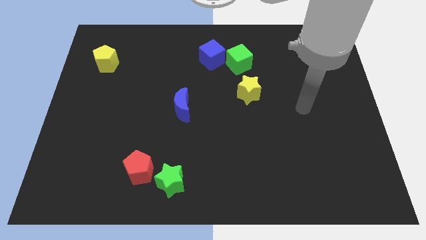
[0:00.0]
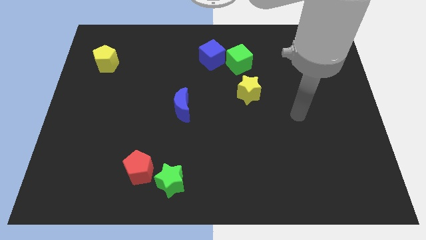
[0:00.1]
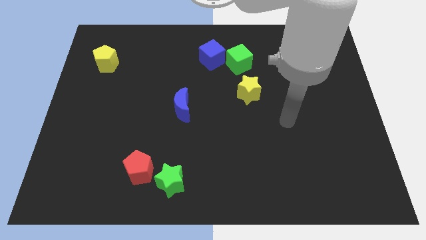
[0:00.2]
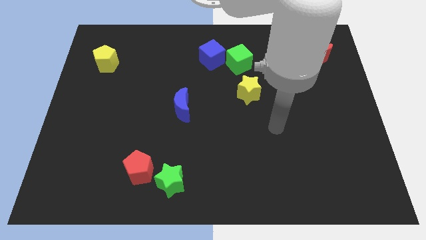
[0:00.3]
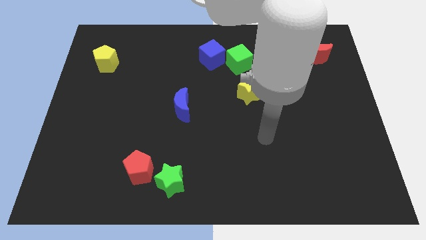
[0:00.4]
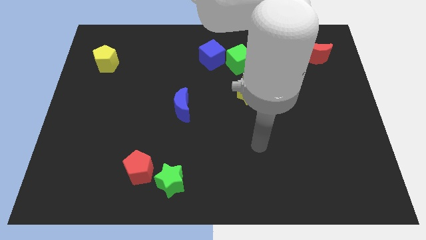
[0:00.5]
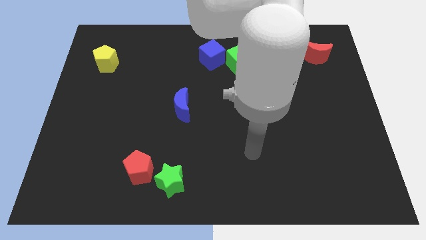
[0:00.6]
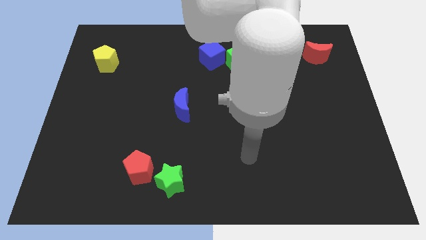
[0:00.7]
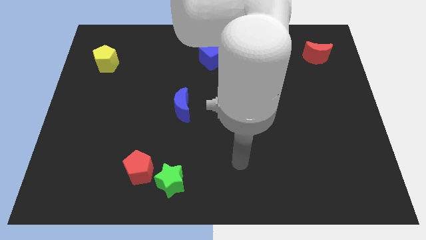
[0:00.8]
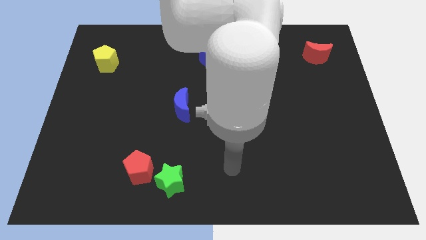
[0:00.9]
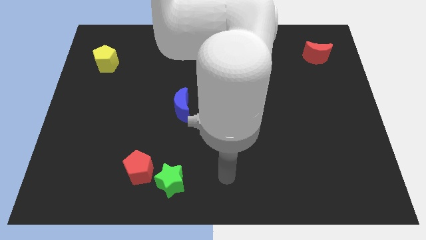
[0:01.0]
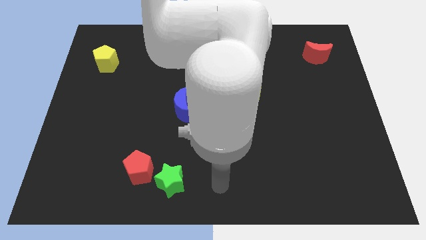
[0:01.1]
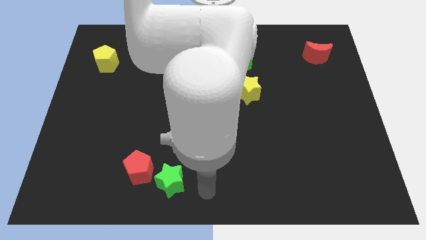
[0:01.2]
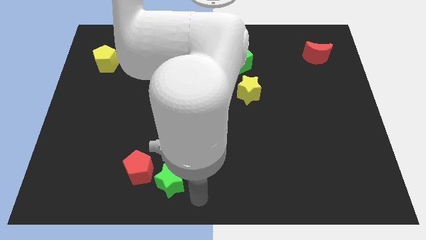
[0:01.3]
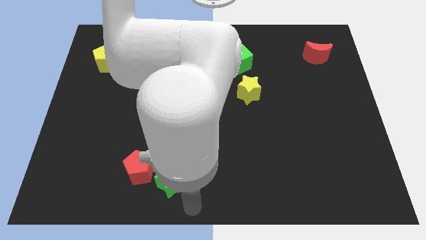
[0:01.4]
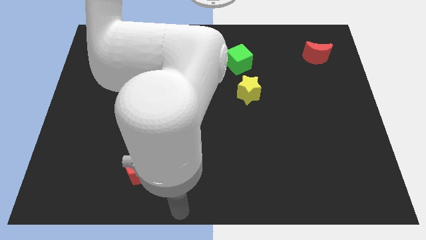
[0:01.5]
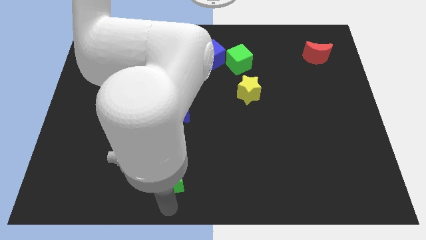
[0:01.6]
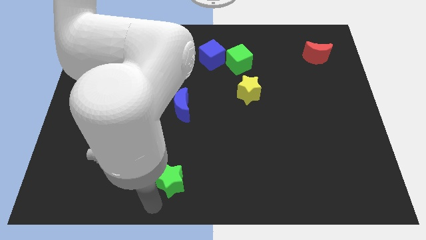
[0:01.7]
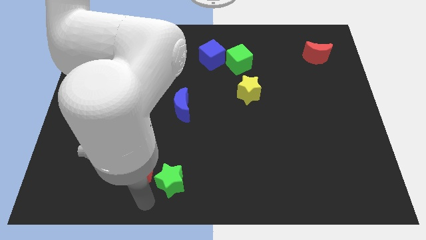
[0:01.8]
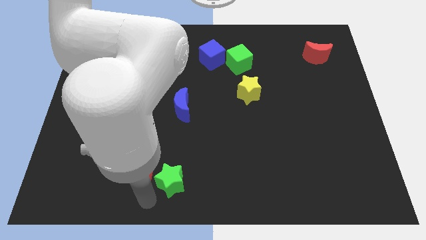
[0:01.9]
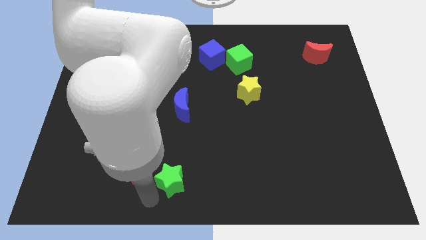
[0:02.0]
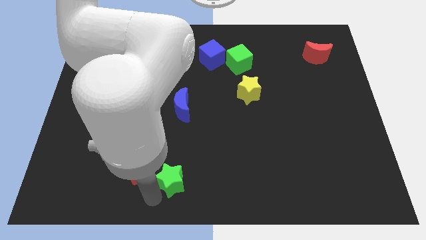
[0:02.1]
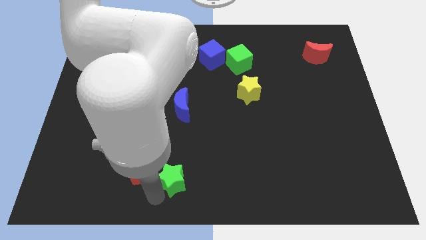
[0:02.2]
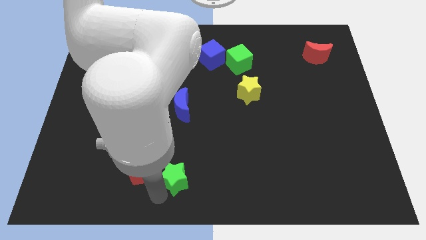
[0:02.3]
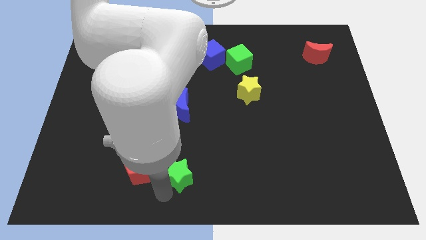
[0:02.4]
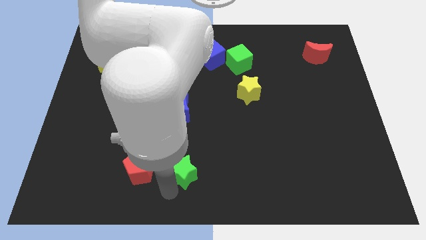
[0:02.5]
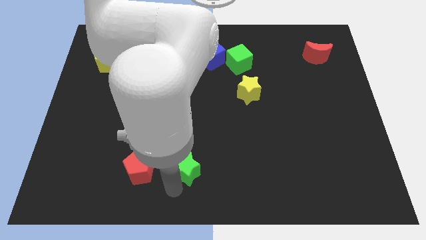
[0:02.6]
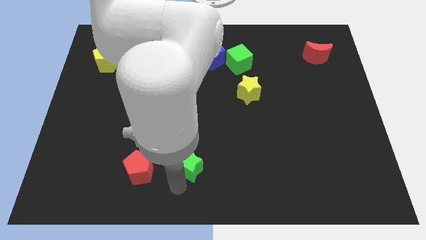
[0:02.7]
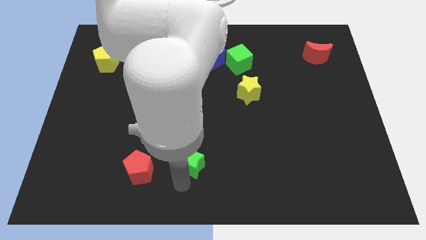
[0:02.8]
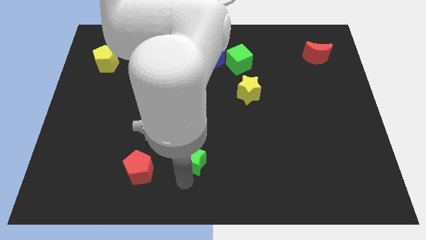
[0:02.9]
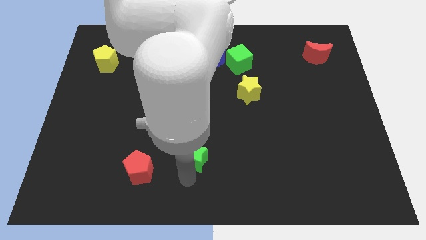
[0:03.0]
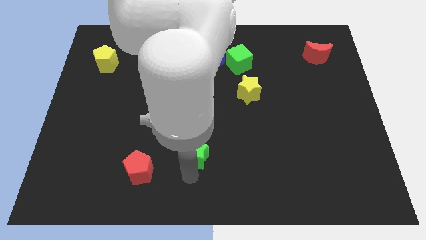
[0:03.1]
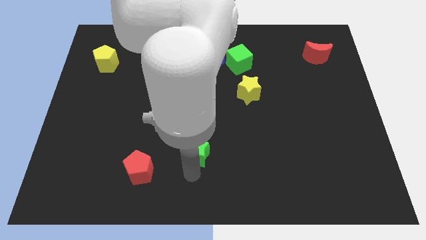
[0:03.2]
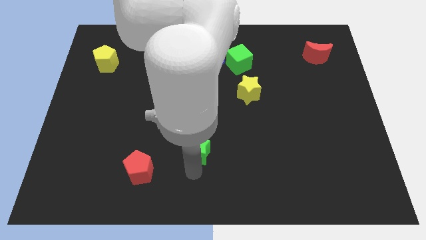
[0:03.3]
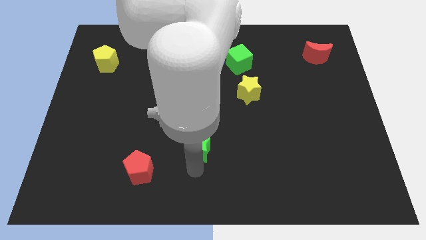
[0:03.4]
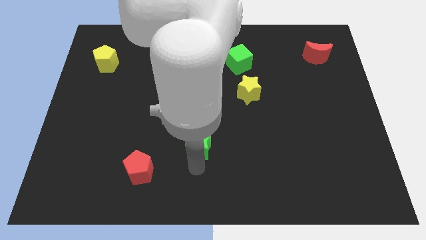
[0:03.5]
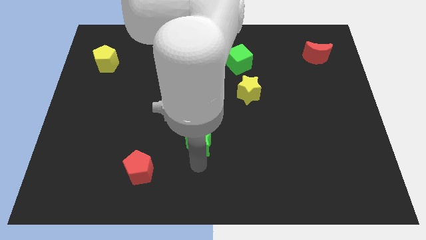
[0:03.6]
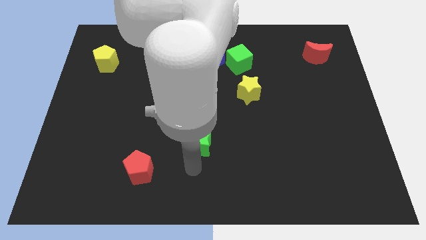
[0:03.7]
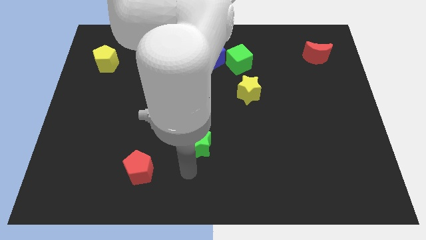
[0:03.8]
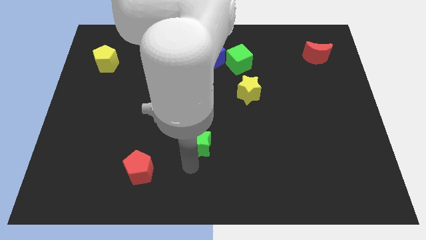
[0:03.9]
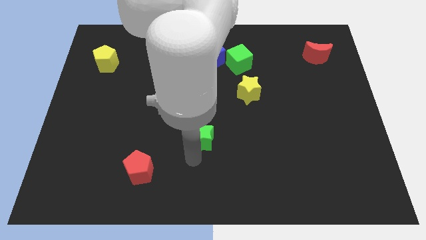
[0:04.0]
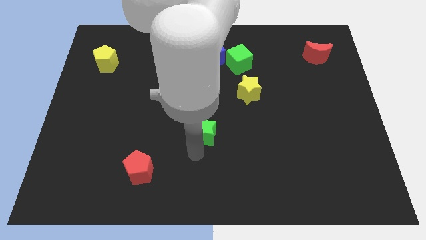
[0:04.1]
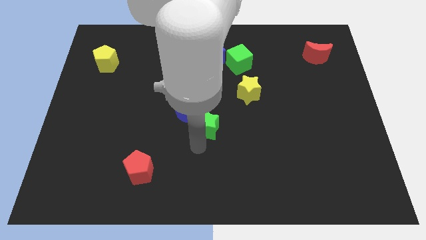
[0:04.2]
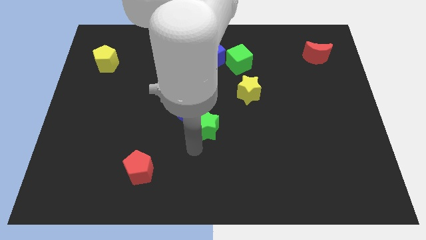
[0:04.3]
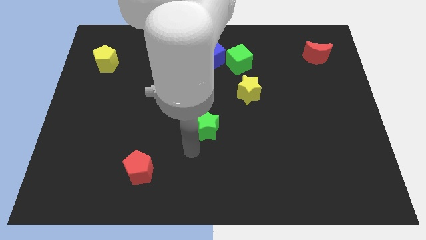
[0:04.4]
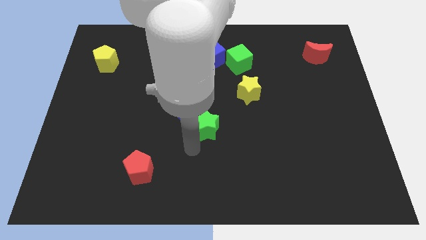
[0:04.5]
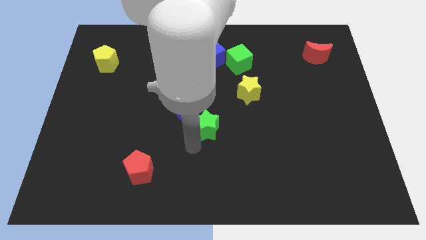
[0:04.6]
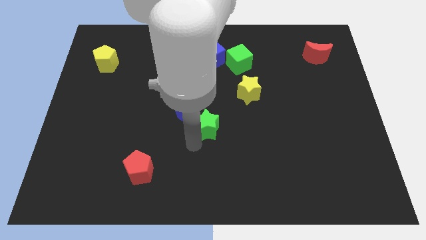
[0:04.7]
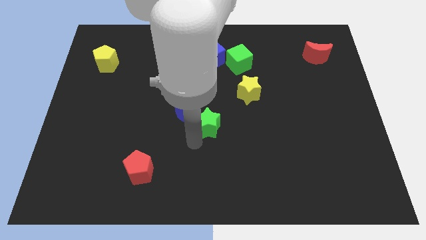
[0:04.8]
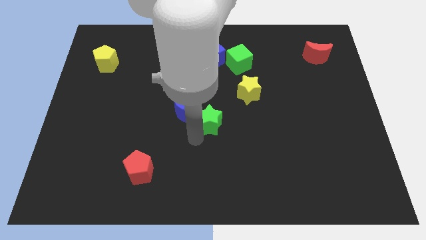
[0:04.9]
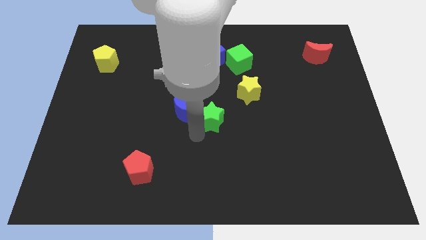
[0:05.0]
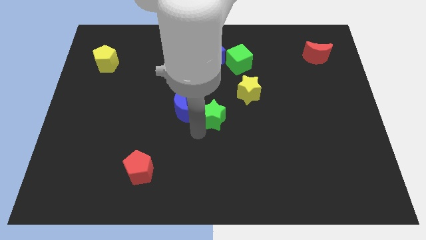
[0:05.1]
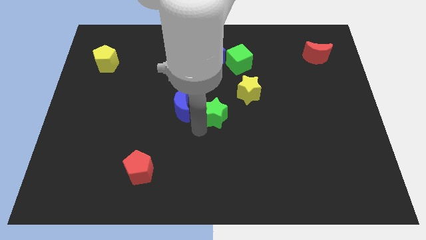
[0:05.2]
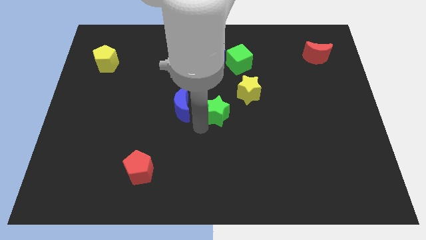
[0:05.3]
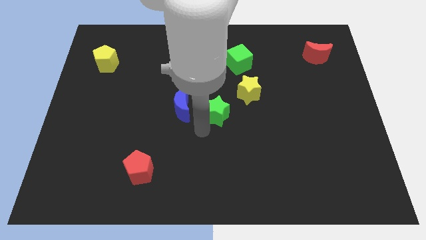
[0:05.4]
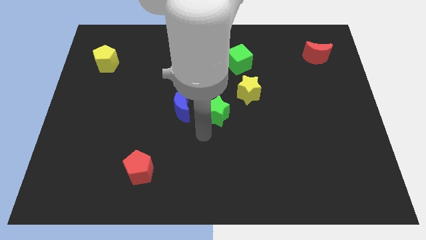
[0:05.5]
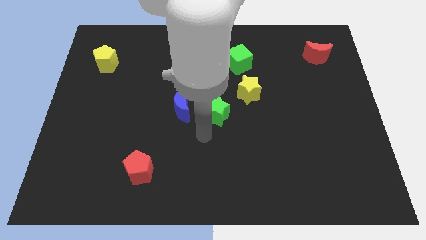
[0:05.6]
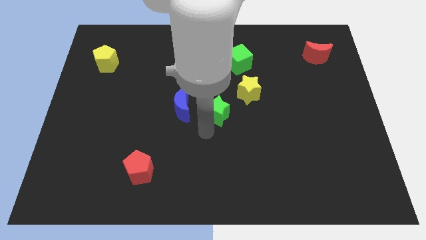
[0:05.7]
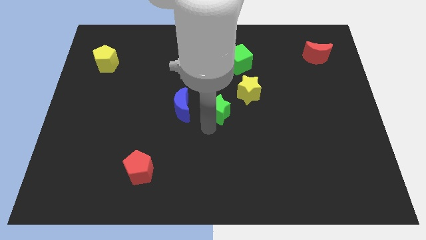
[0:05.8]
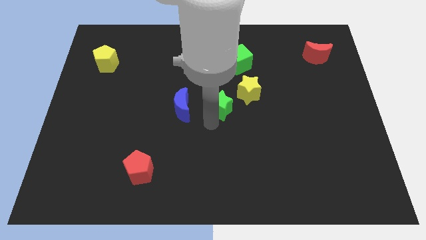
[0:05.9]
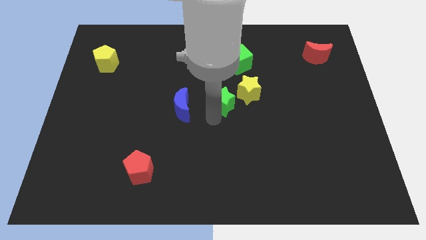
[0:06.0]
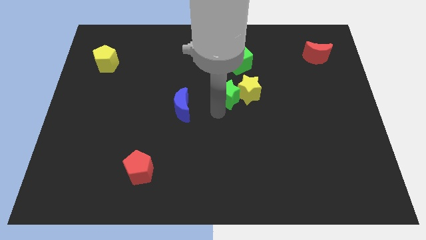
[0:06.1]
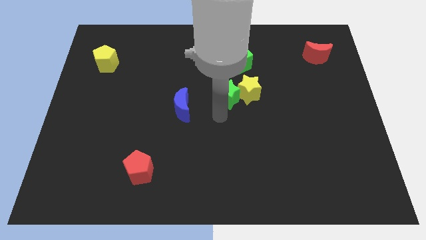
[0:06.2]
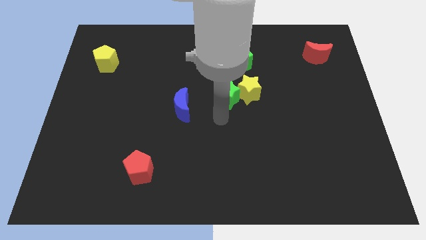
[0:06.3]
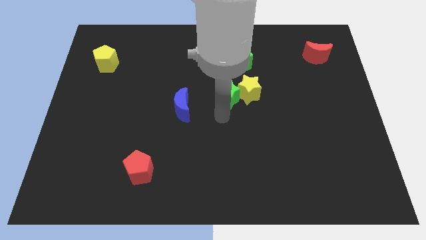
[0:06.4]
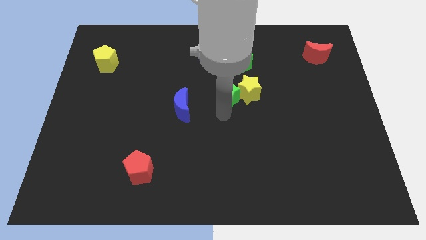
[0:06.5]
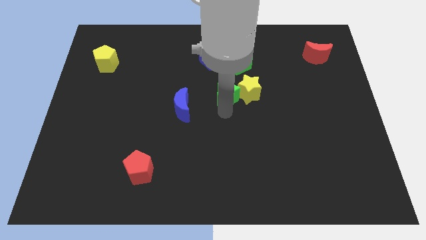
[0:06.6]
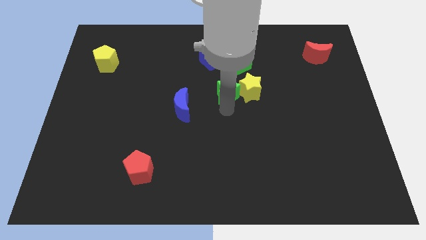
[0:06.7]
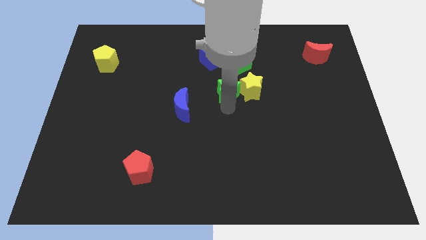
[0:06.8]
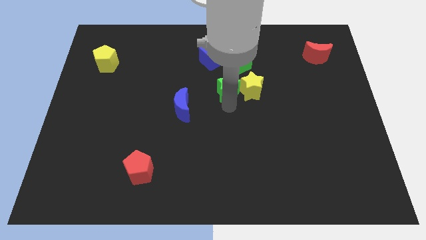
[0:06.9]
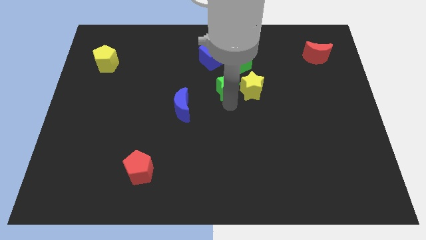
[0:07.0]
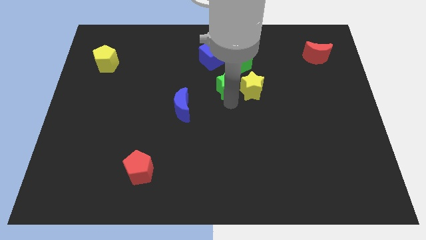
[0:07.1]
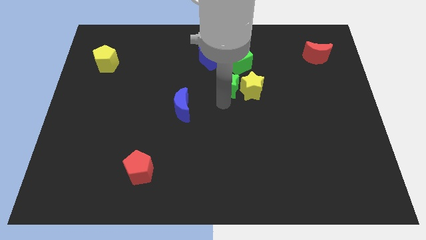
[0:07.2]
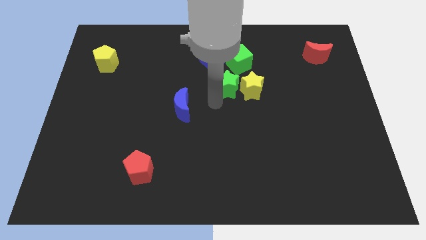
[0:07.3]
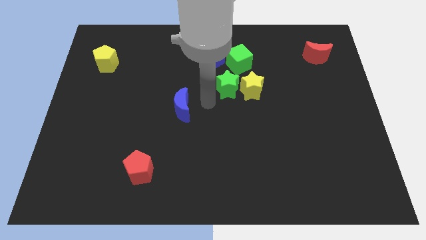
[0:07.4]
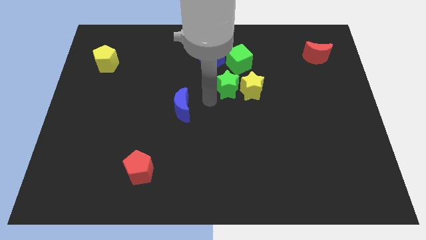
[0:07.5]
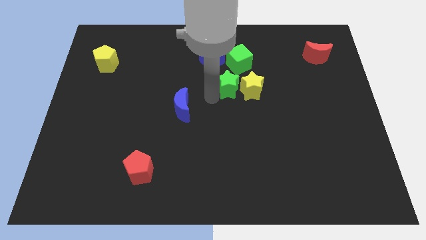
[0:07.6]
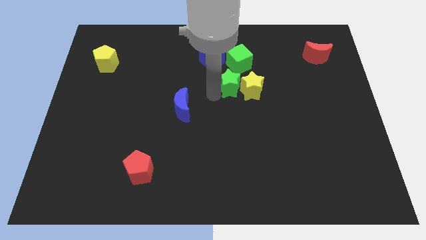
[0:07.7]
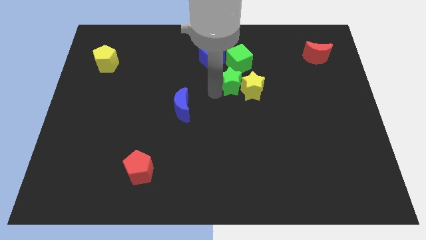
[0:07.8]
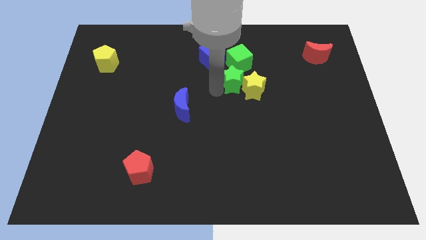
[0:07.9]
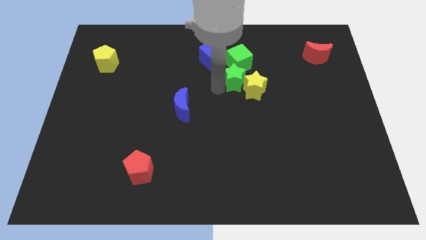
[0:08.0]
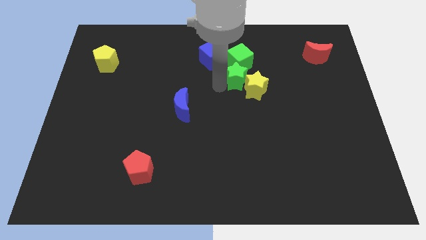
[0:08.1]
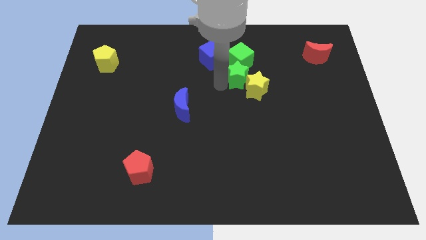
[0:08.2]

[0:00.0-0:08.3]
slide the green star to the top side of the yellow star
